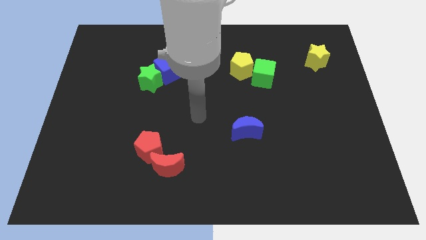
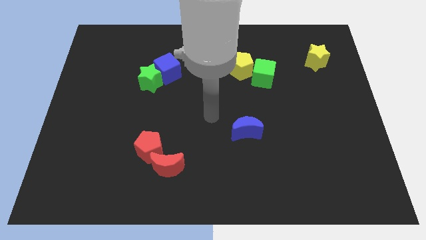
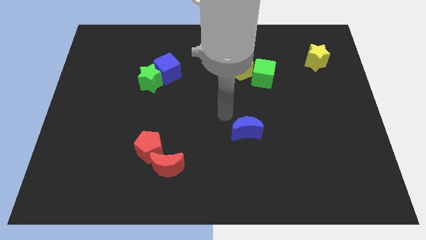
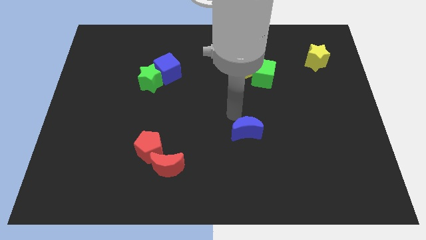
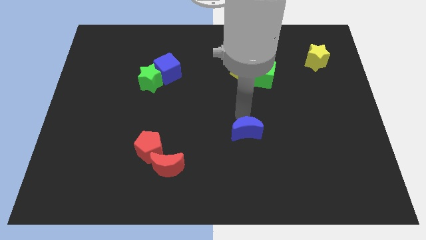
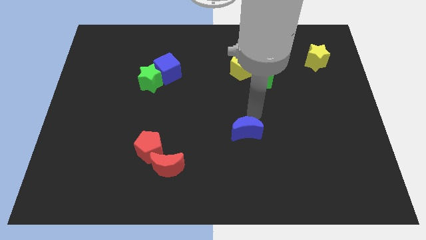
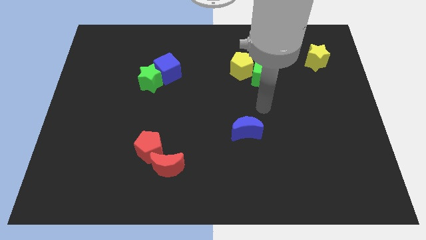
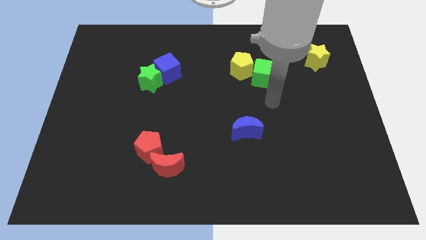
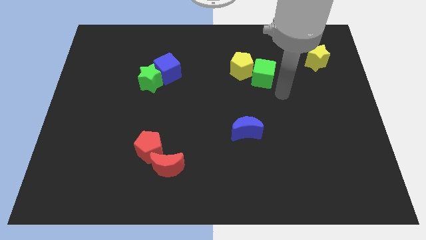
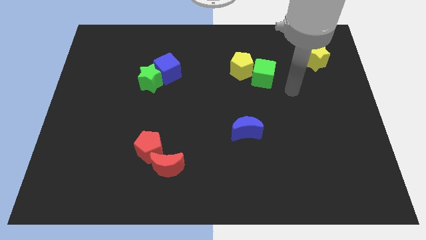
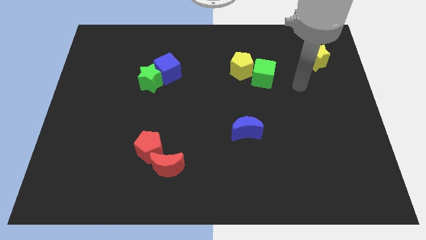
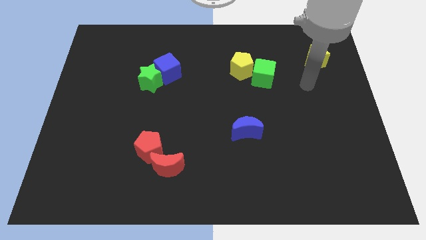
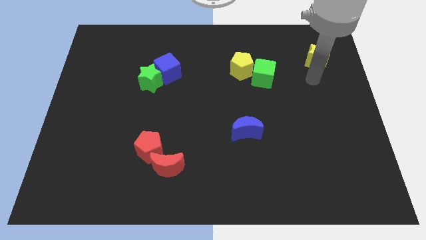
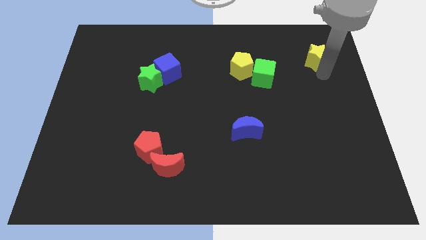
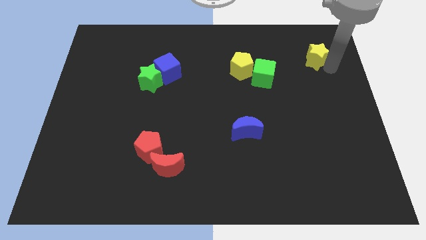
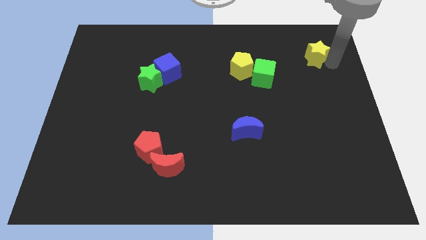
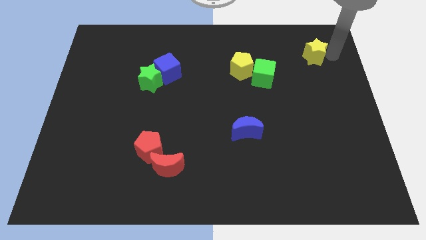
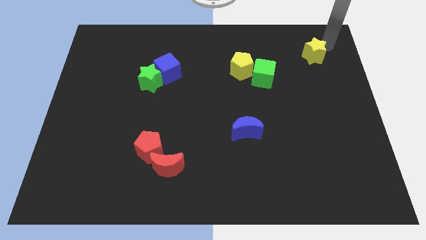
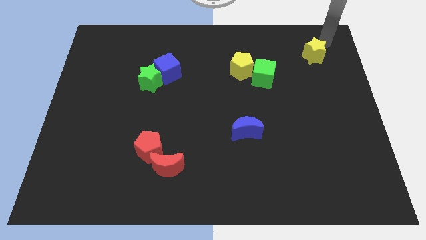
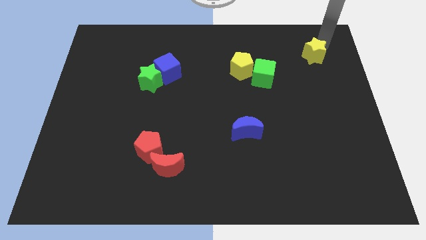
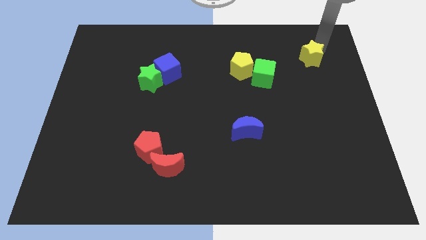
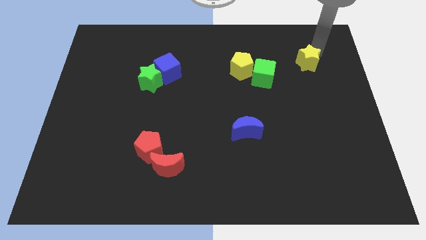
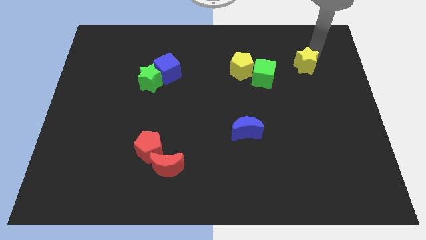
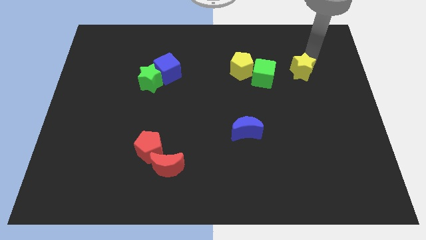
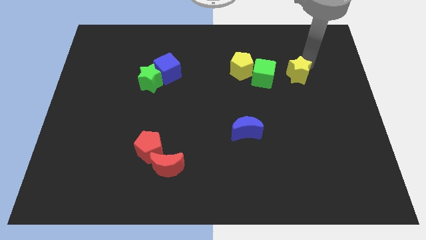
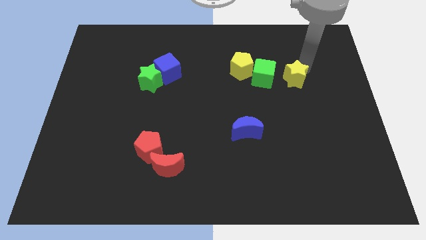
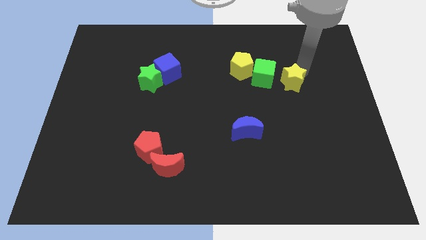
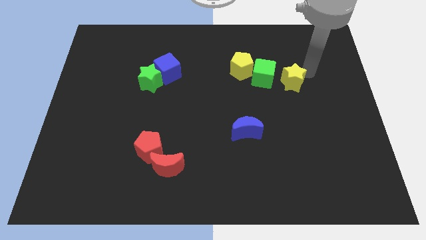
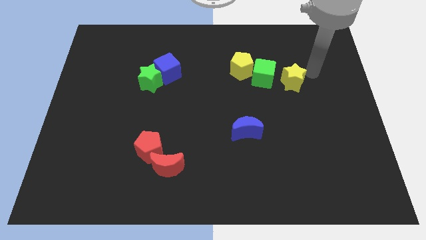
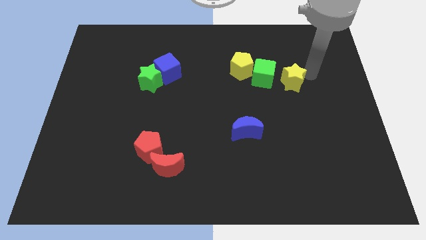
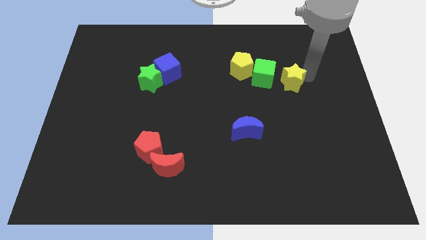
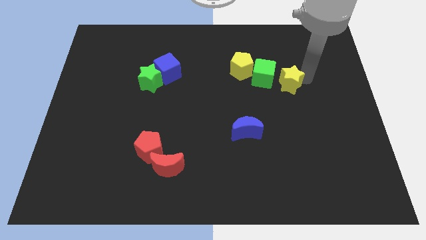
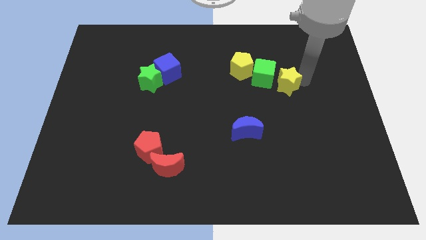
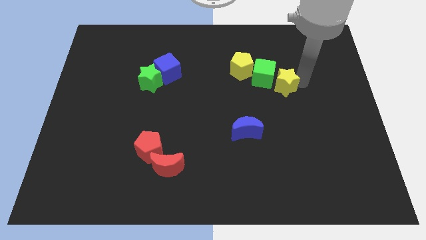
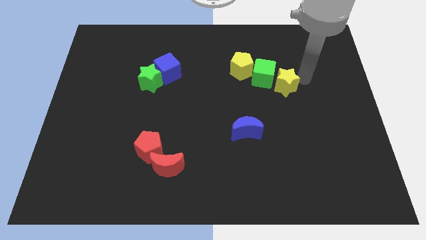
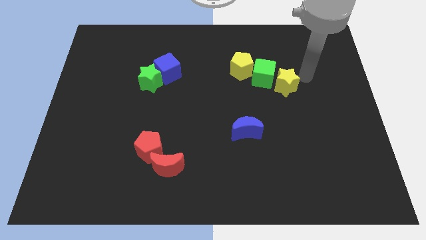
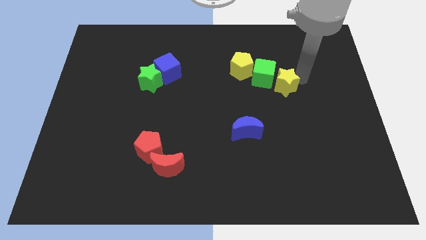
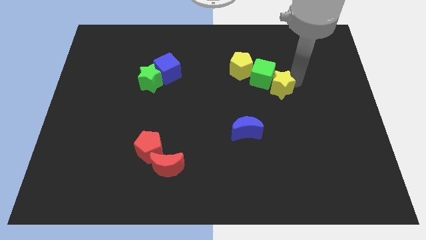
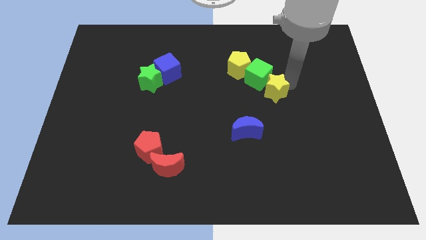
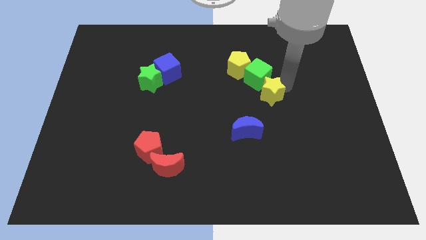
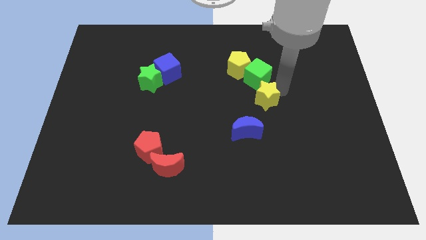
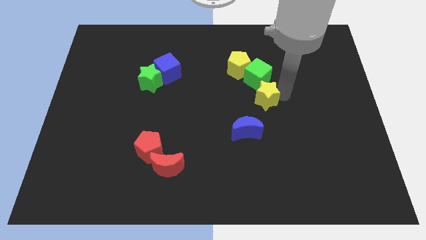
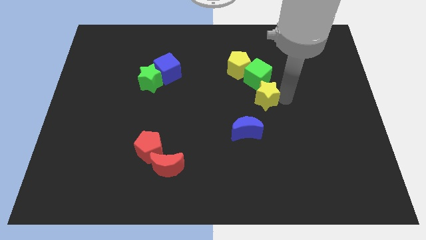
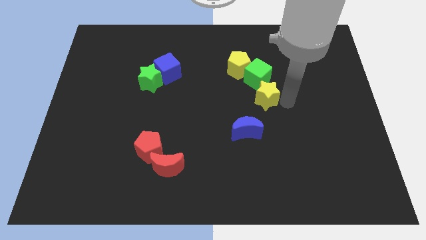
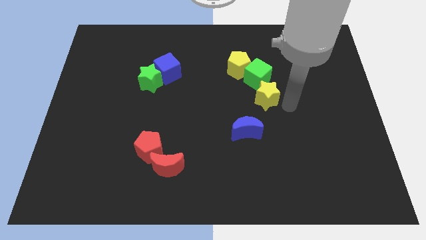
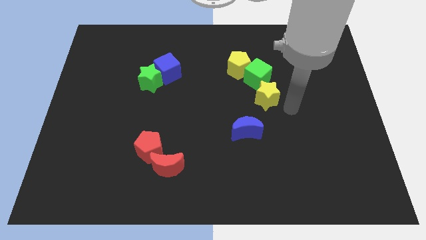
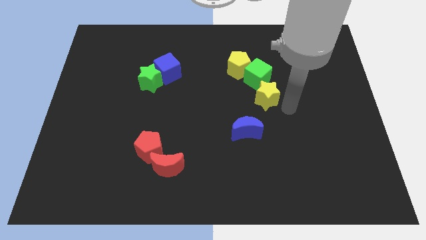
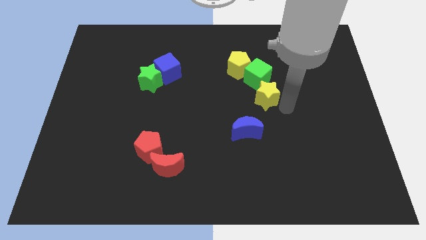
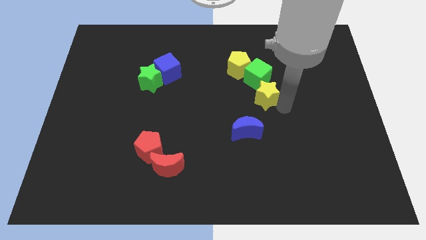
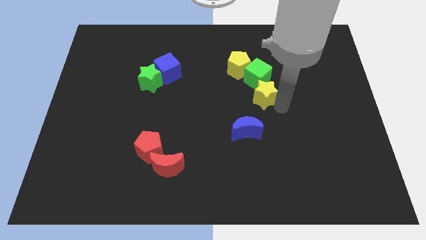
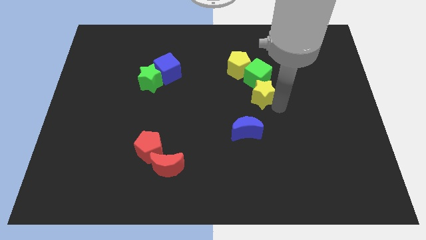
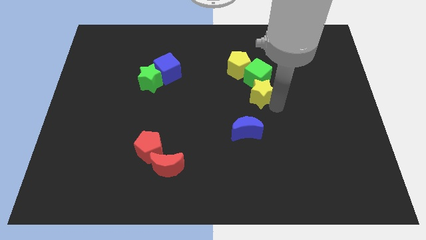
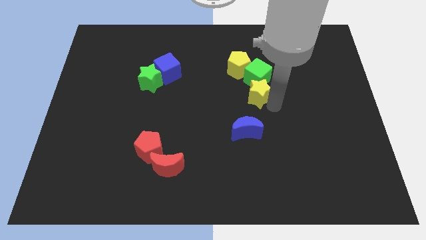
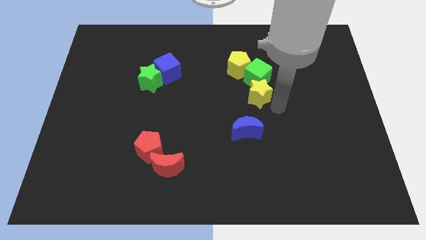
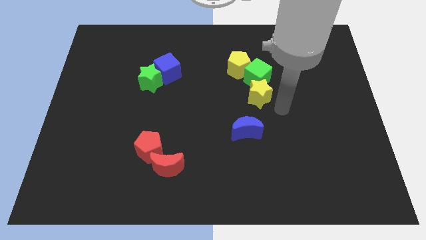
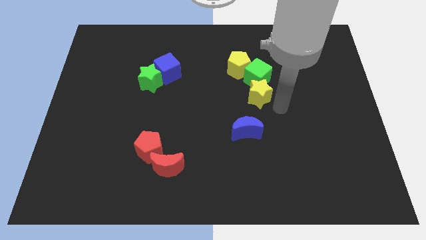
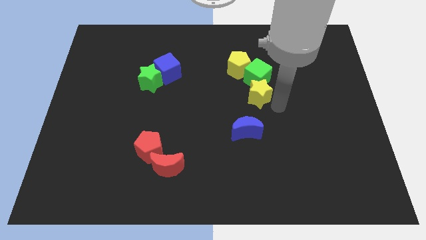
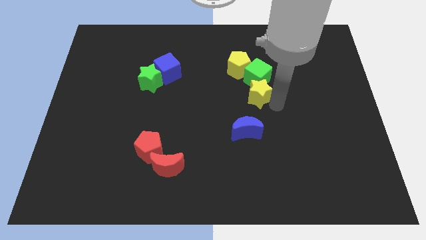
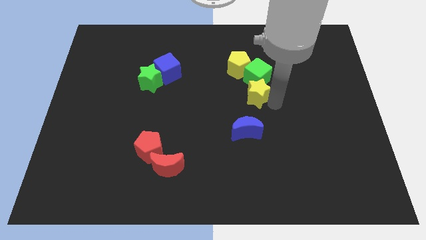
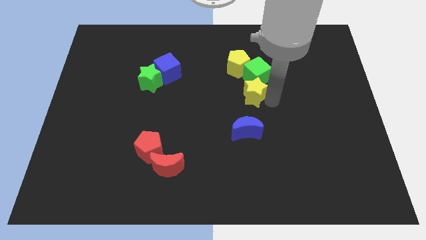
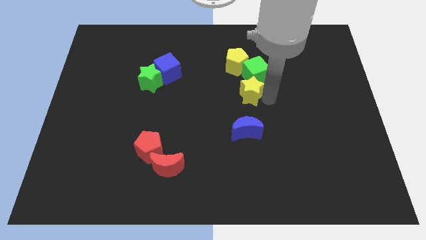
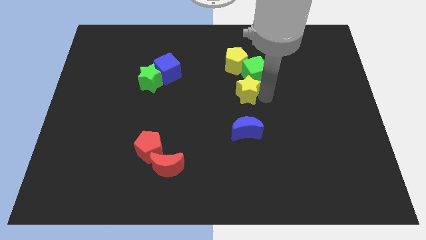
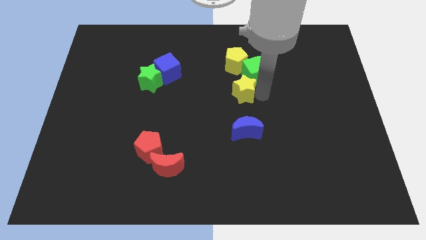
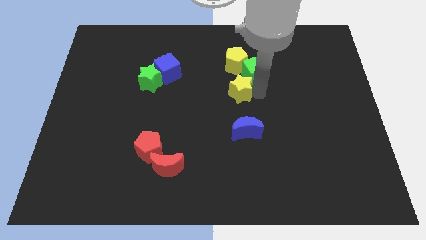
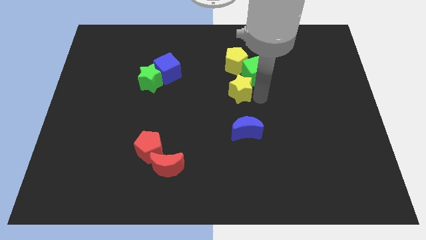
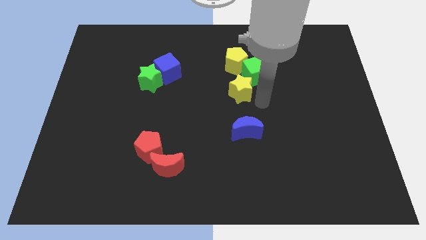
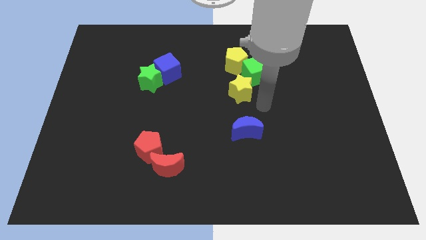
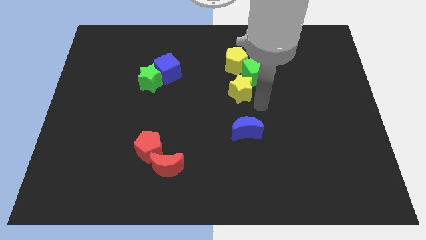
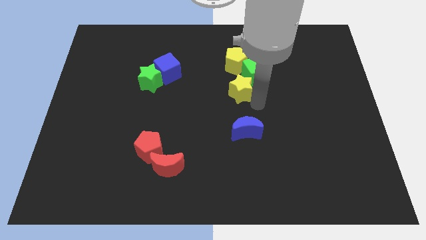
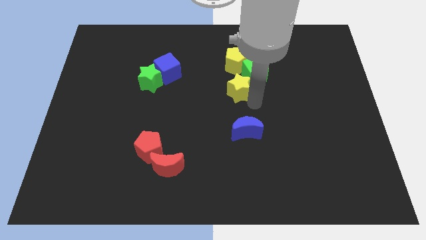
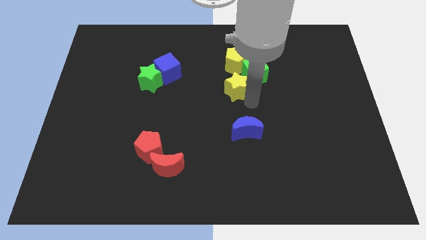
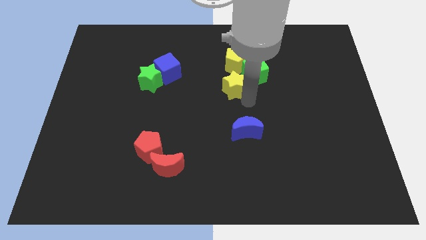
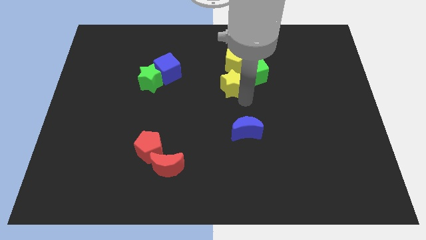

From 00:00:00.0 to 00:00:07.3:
put the yellow star to the bottom left side of the yellow pentagon
